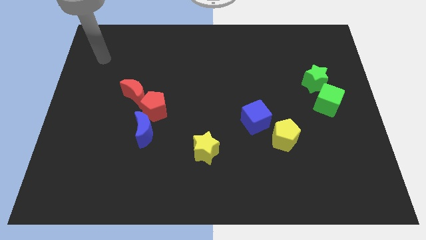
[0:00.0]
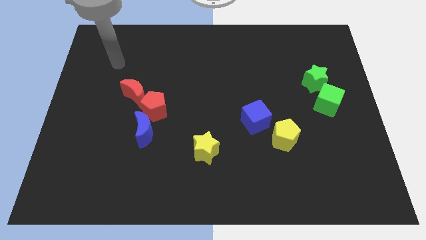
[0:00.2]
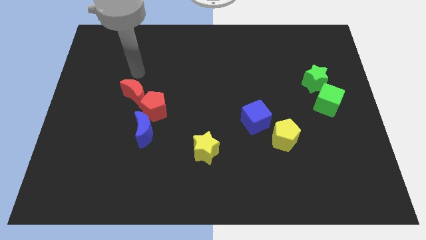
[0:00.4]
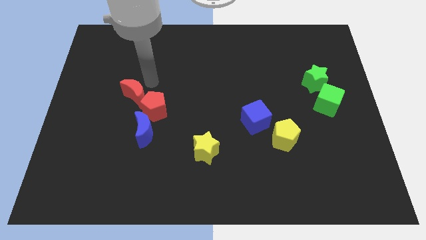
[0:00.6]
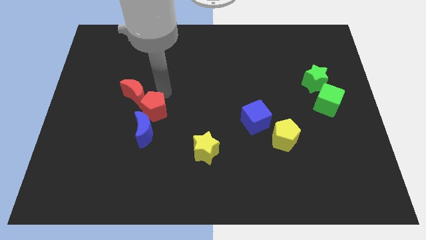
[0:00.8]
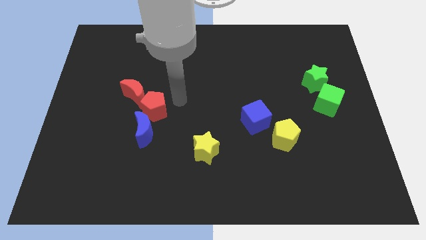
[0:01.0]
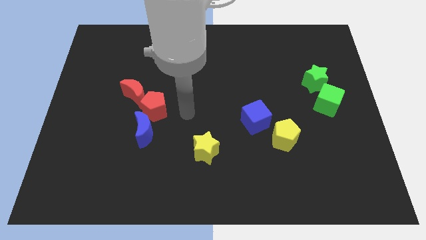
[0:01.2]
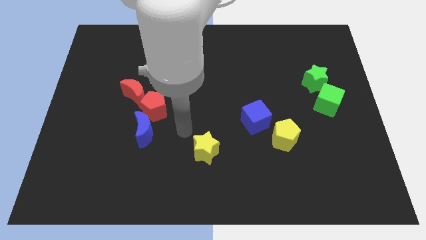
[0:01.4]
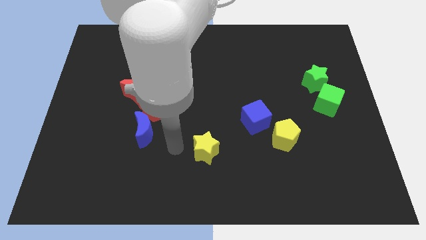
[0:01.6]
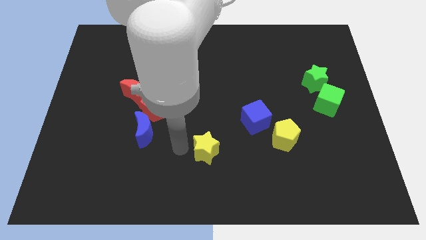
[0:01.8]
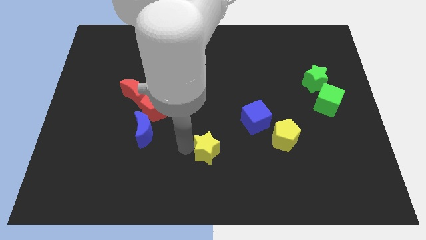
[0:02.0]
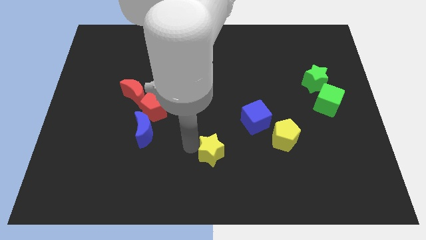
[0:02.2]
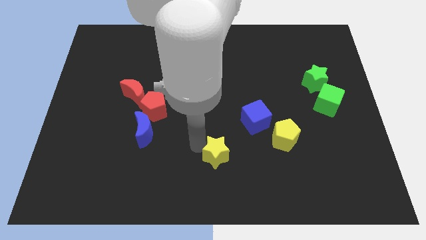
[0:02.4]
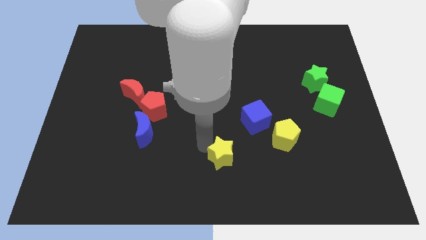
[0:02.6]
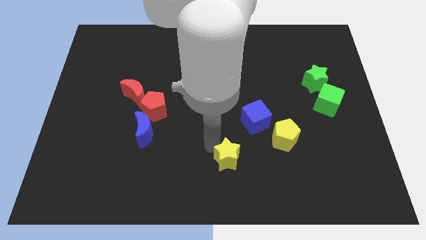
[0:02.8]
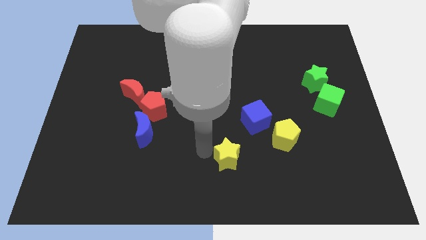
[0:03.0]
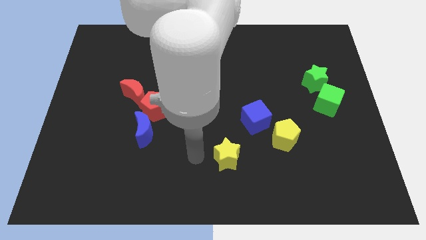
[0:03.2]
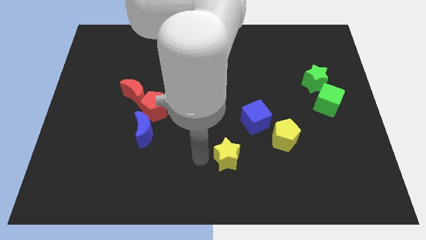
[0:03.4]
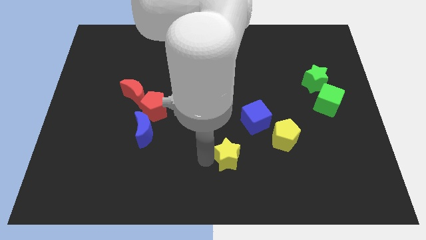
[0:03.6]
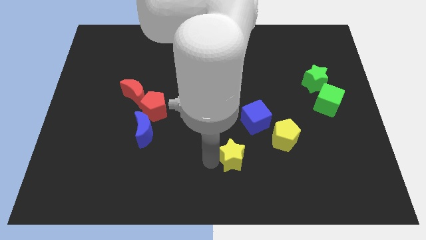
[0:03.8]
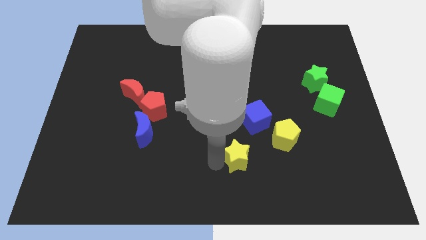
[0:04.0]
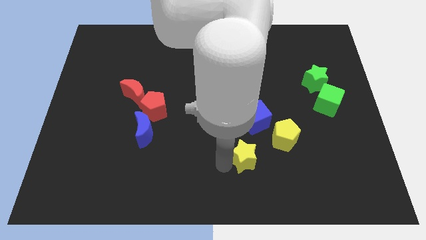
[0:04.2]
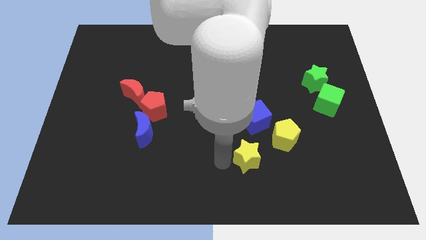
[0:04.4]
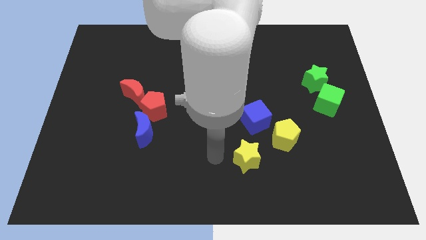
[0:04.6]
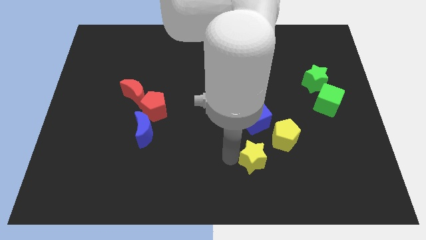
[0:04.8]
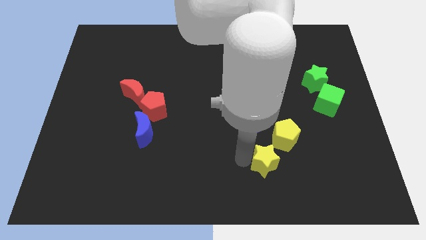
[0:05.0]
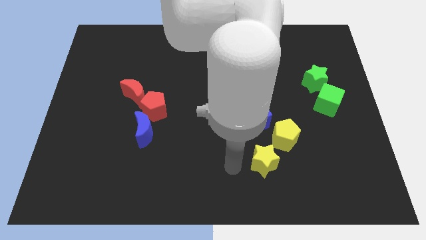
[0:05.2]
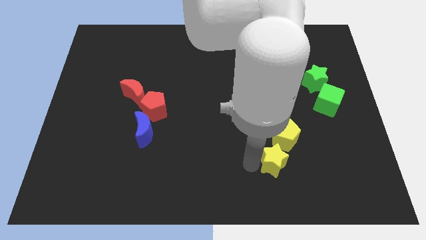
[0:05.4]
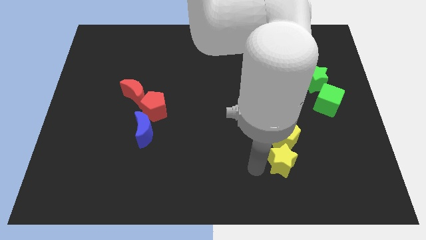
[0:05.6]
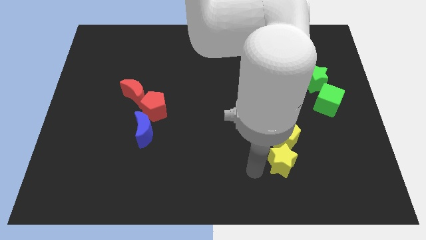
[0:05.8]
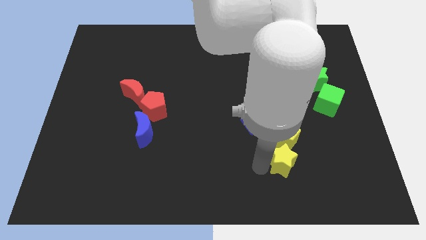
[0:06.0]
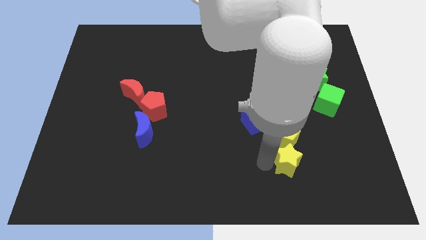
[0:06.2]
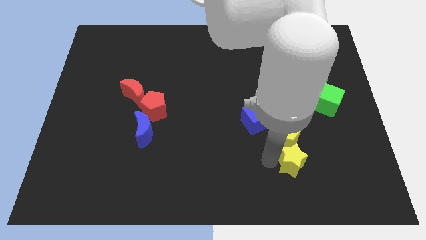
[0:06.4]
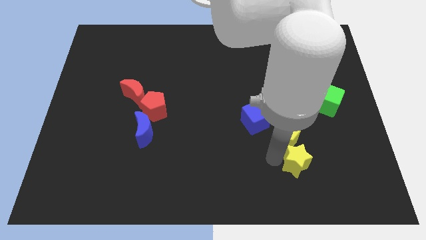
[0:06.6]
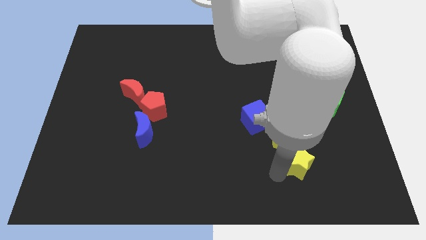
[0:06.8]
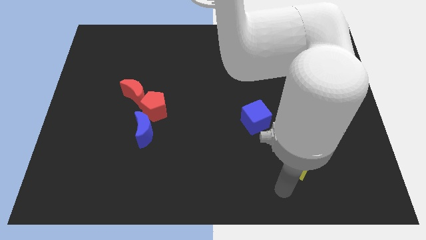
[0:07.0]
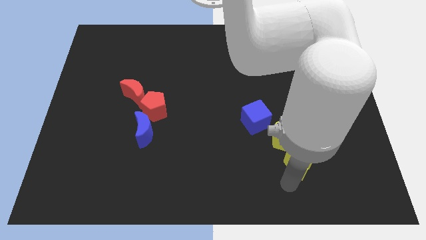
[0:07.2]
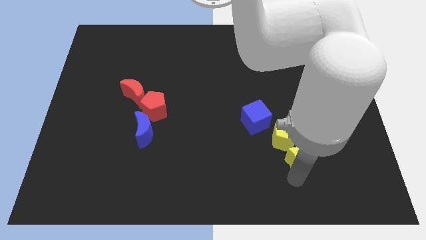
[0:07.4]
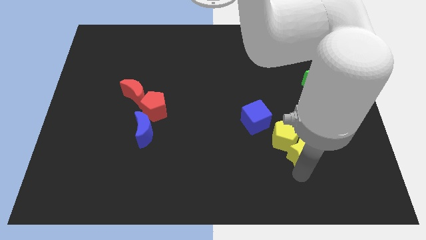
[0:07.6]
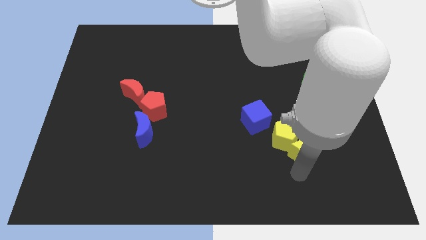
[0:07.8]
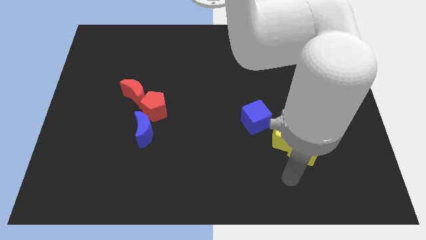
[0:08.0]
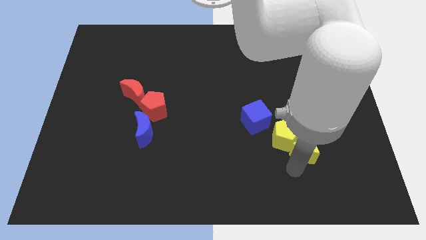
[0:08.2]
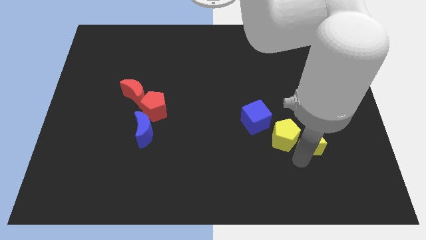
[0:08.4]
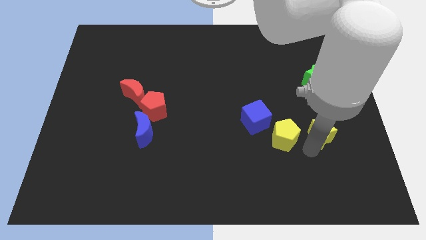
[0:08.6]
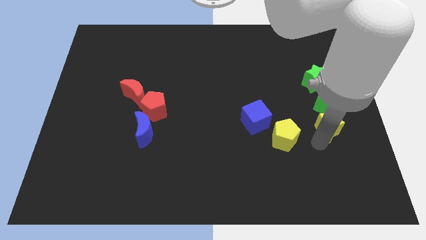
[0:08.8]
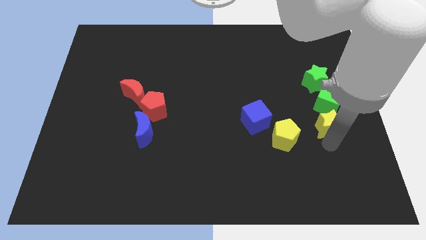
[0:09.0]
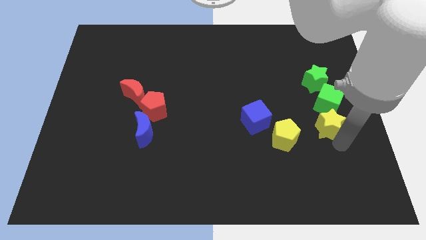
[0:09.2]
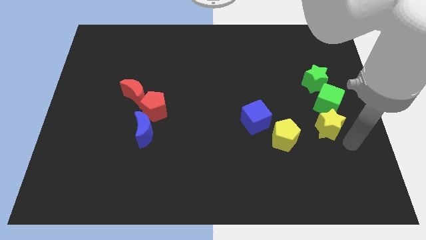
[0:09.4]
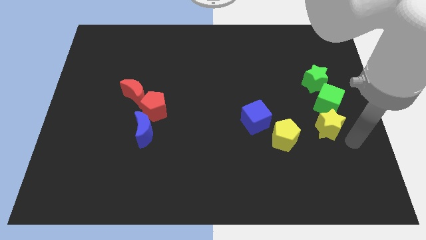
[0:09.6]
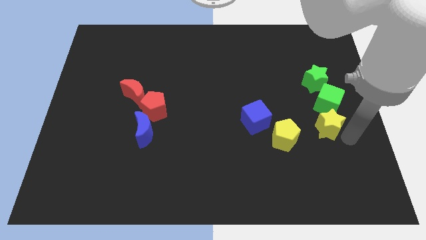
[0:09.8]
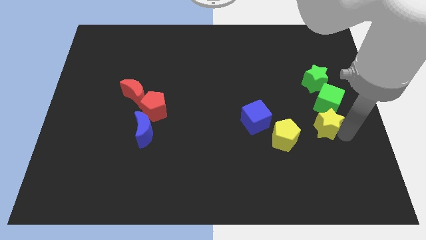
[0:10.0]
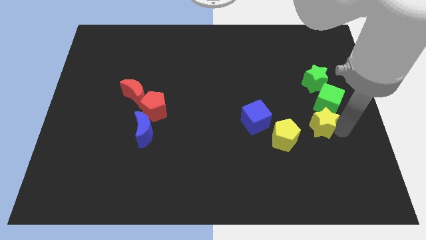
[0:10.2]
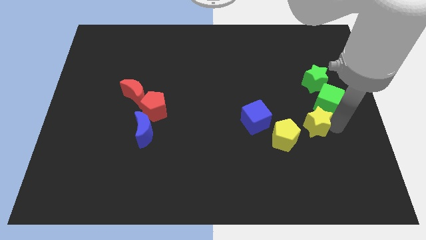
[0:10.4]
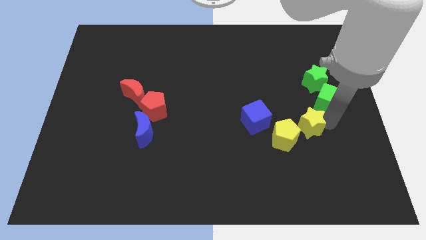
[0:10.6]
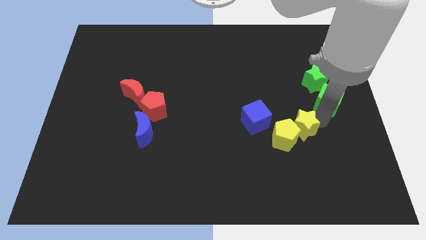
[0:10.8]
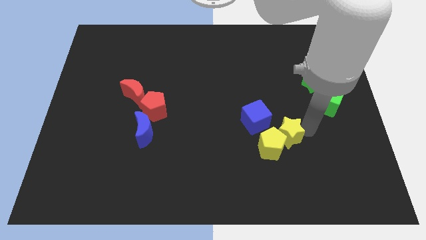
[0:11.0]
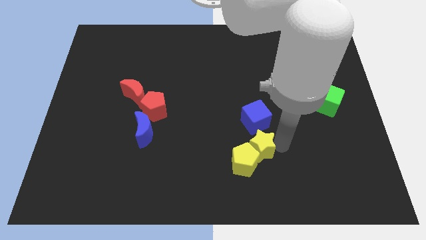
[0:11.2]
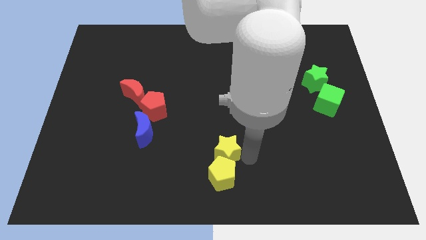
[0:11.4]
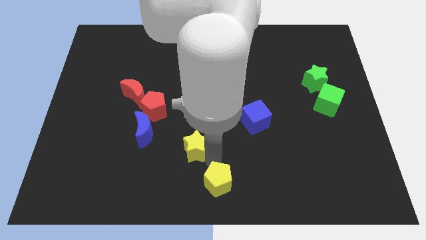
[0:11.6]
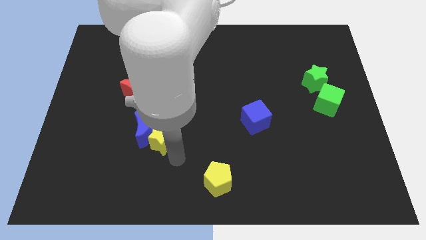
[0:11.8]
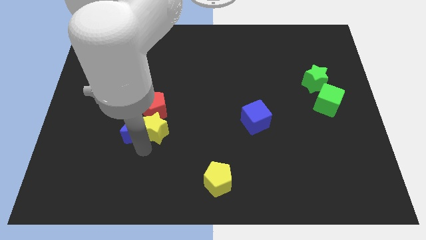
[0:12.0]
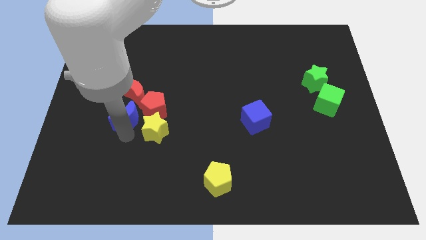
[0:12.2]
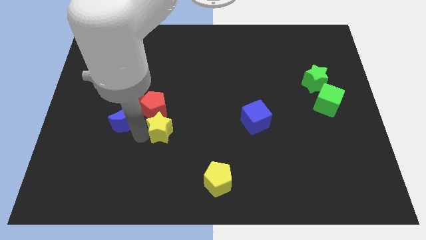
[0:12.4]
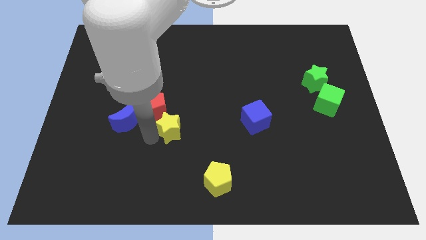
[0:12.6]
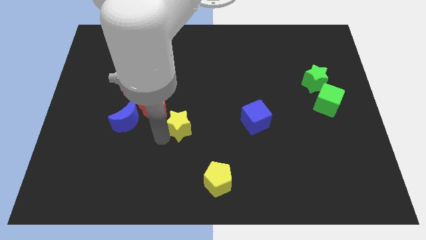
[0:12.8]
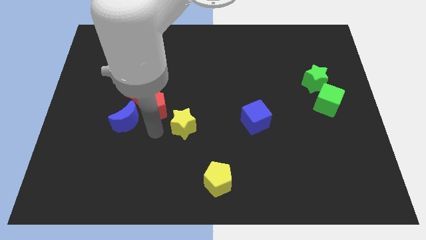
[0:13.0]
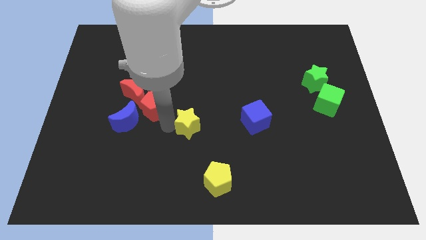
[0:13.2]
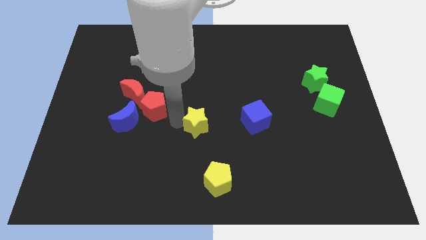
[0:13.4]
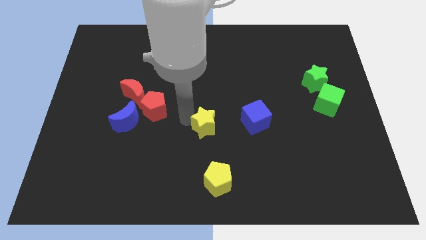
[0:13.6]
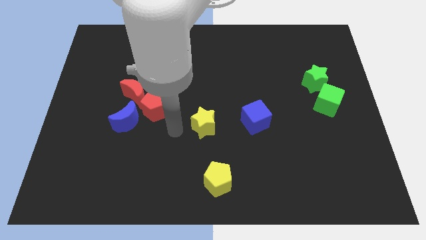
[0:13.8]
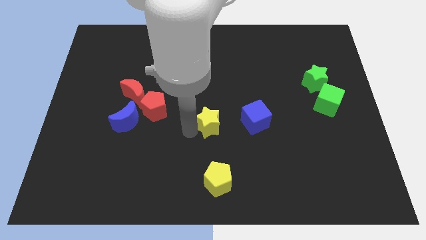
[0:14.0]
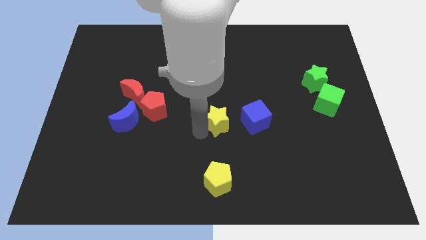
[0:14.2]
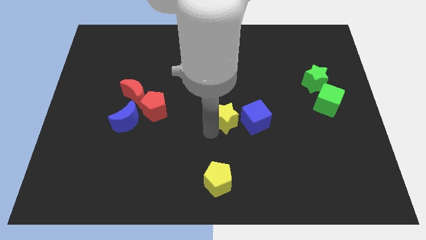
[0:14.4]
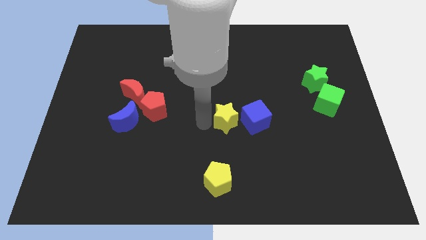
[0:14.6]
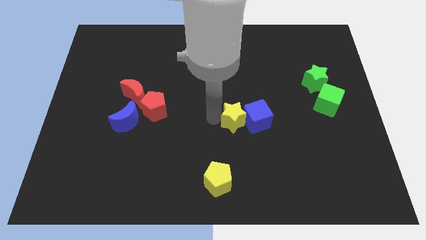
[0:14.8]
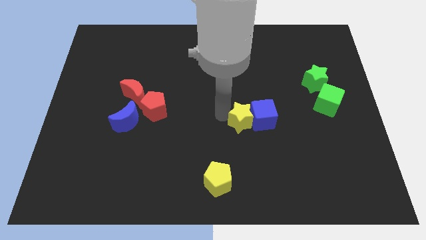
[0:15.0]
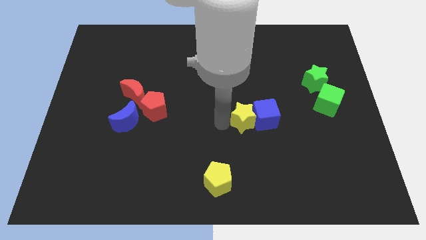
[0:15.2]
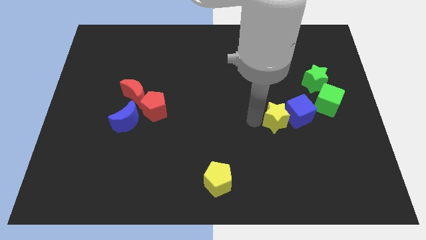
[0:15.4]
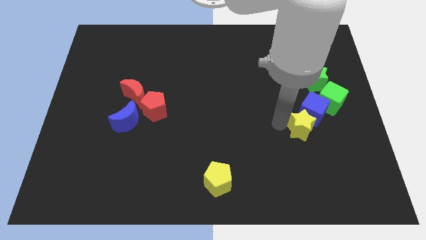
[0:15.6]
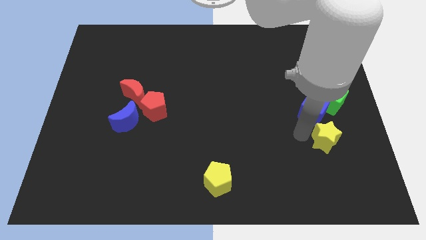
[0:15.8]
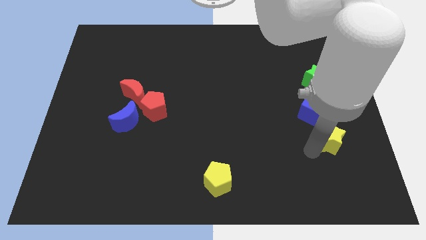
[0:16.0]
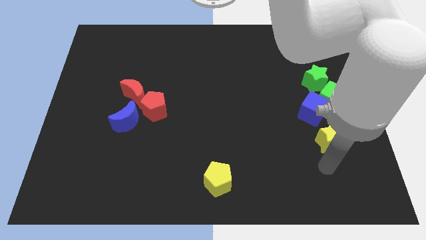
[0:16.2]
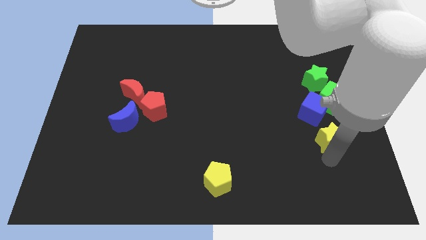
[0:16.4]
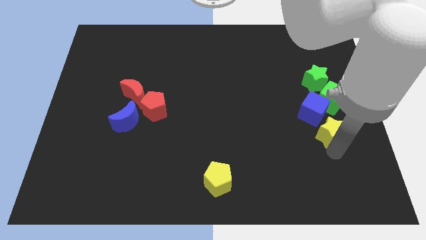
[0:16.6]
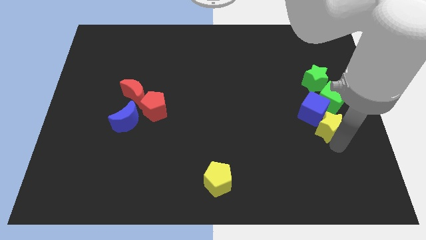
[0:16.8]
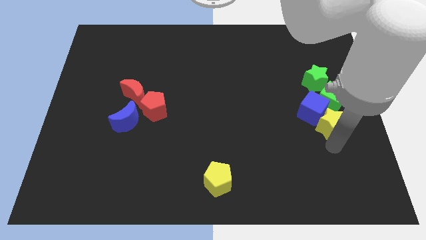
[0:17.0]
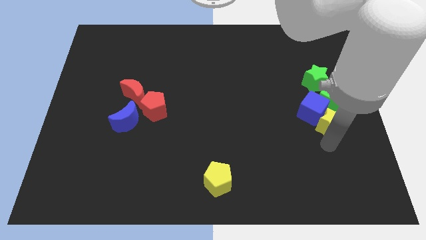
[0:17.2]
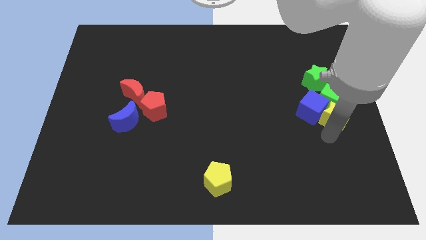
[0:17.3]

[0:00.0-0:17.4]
push the yellow star next to the green cube
